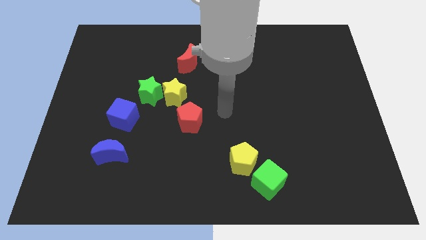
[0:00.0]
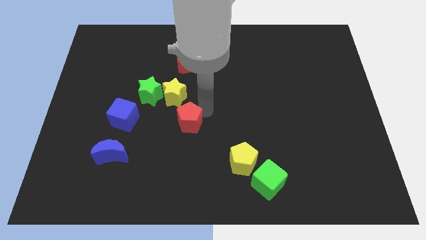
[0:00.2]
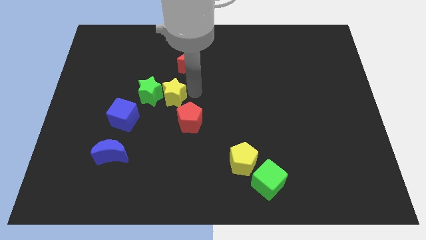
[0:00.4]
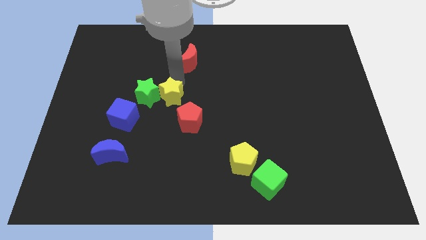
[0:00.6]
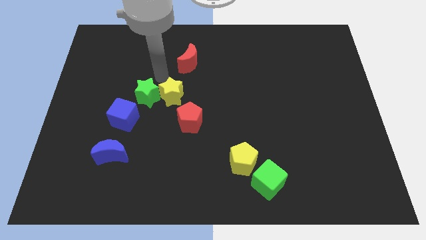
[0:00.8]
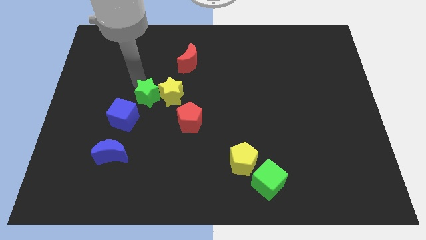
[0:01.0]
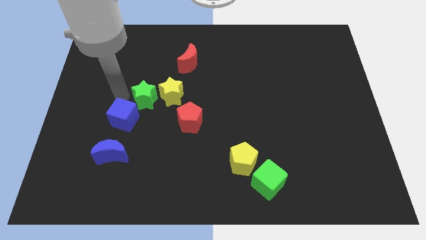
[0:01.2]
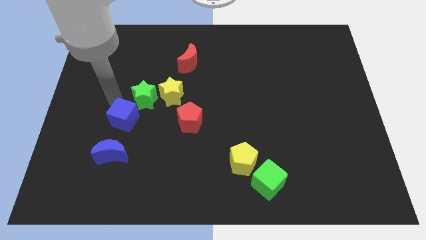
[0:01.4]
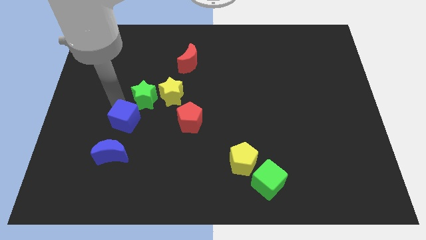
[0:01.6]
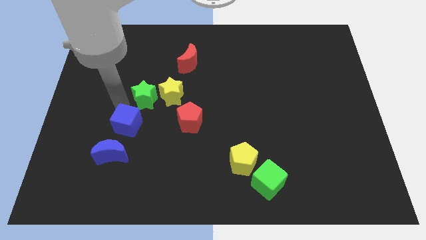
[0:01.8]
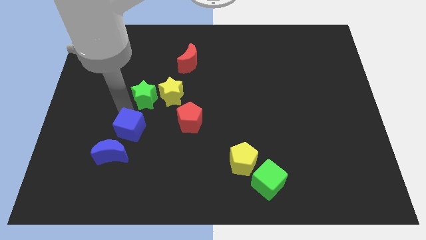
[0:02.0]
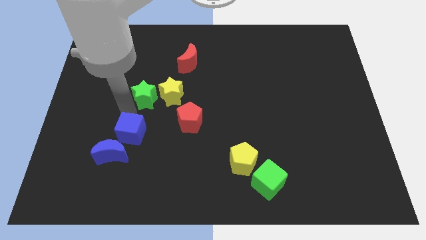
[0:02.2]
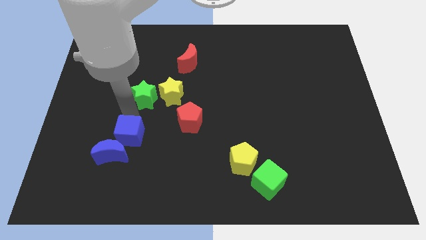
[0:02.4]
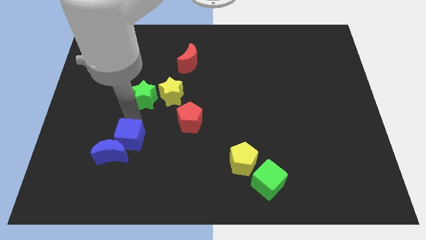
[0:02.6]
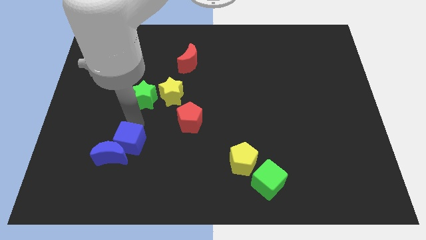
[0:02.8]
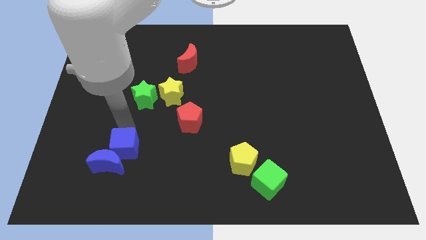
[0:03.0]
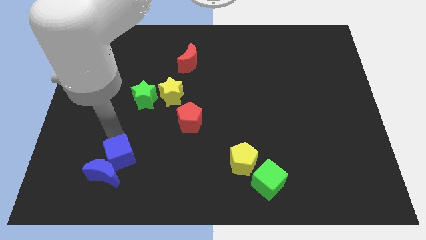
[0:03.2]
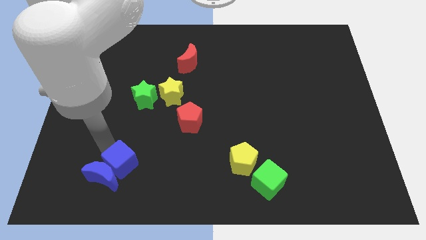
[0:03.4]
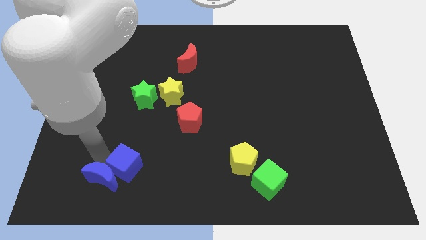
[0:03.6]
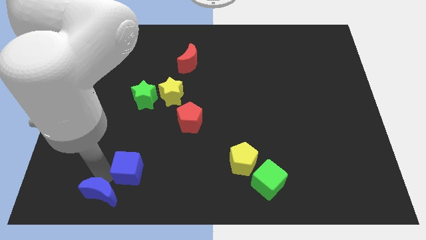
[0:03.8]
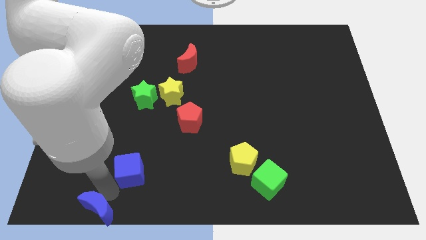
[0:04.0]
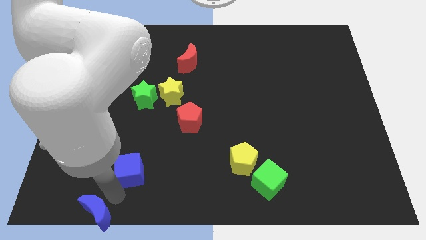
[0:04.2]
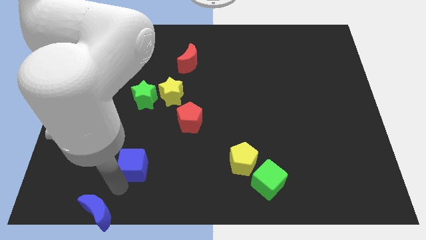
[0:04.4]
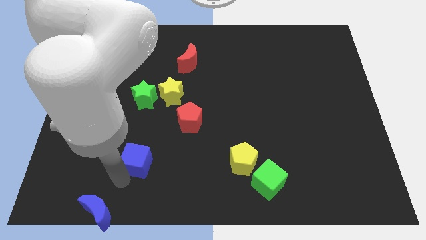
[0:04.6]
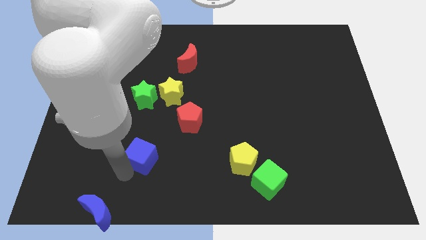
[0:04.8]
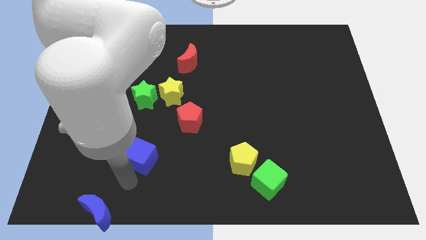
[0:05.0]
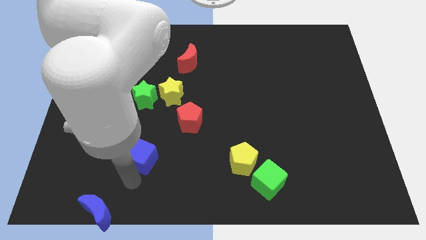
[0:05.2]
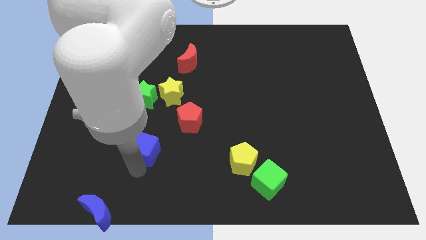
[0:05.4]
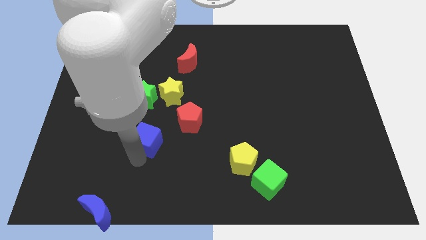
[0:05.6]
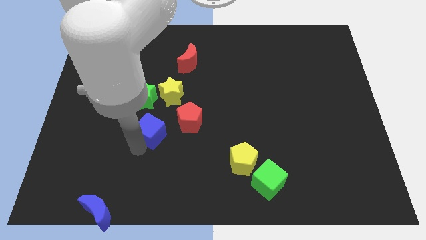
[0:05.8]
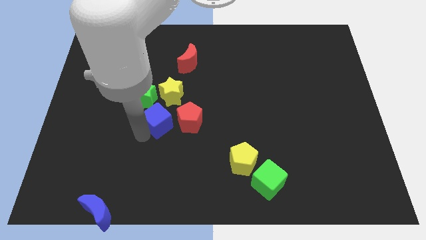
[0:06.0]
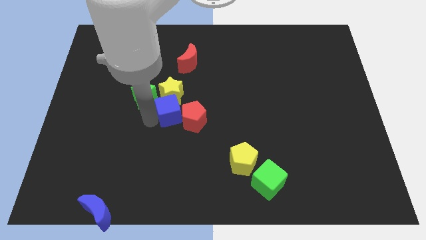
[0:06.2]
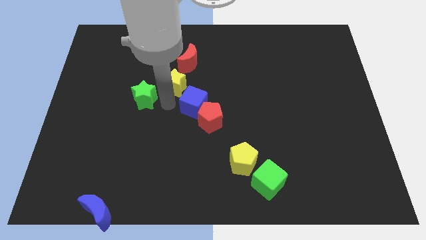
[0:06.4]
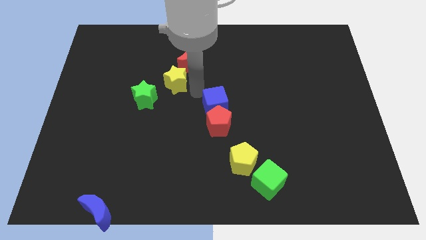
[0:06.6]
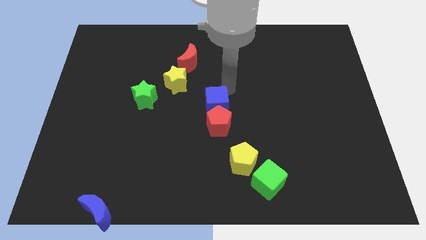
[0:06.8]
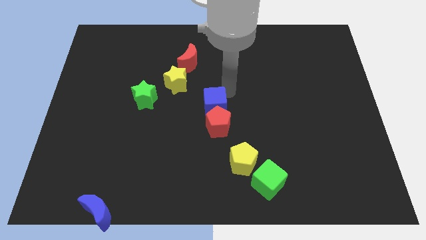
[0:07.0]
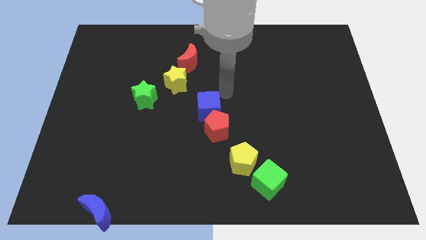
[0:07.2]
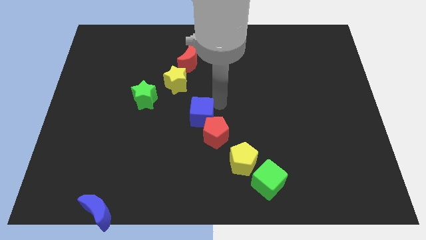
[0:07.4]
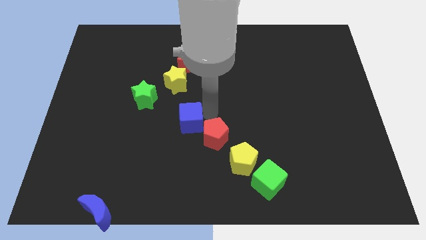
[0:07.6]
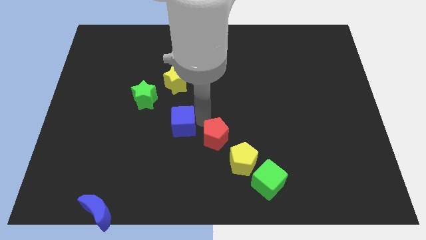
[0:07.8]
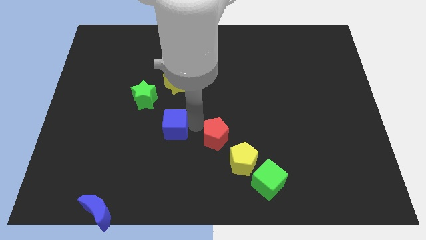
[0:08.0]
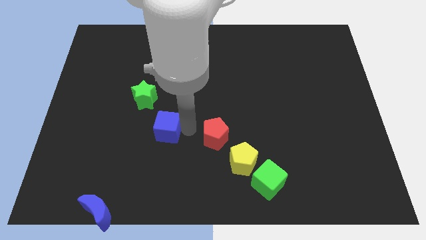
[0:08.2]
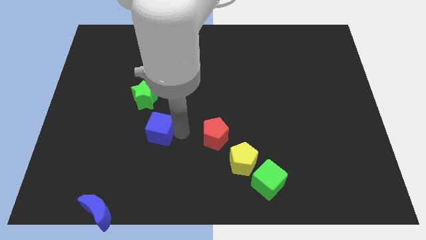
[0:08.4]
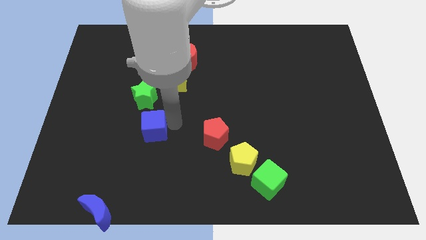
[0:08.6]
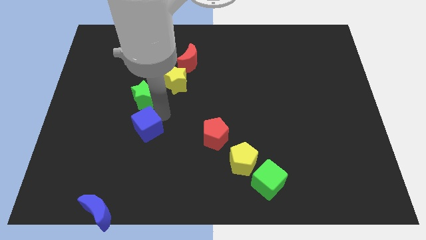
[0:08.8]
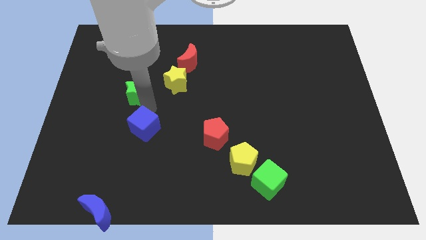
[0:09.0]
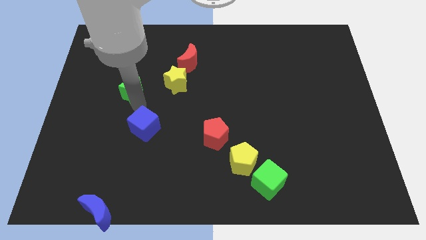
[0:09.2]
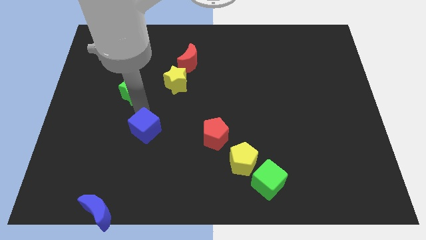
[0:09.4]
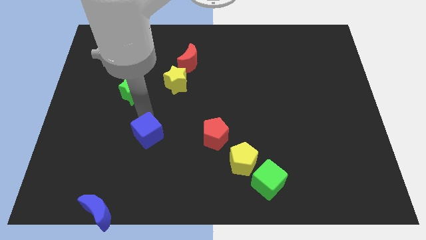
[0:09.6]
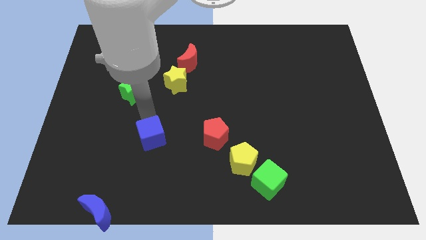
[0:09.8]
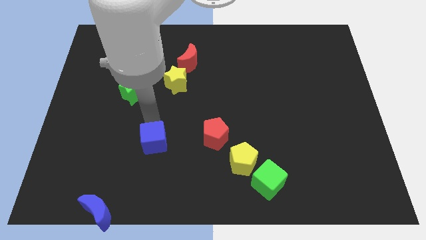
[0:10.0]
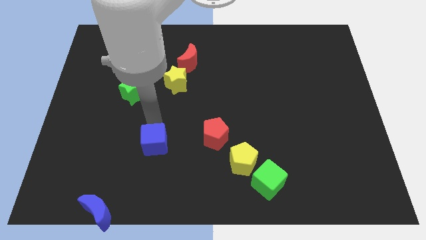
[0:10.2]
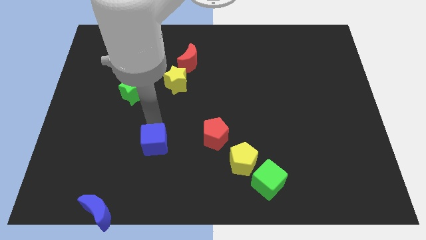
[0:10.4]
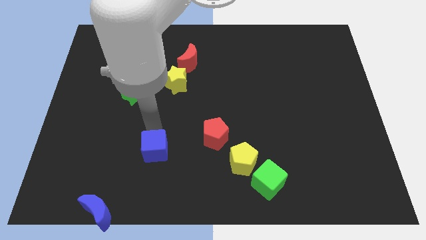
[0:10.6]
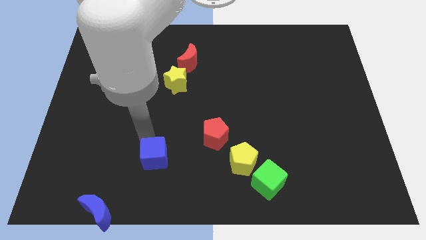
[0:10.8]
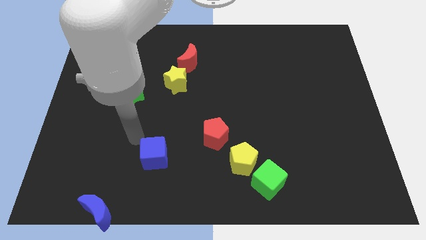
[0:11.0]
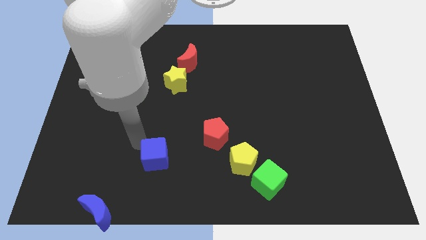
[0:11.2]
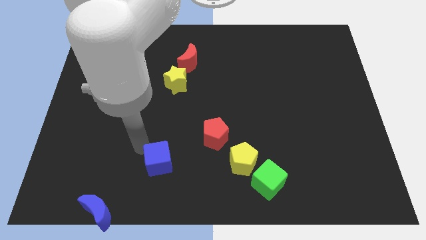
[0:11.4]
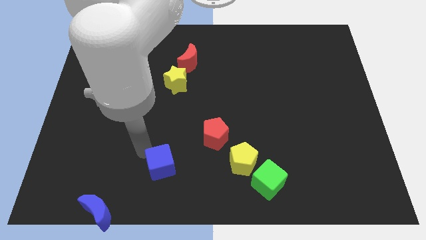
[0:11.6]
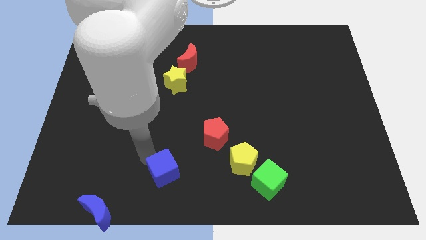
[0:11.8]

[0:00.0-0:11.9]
slide the blue cube to the bottom

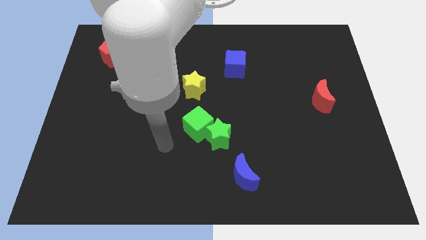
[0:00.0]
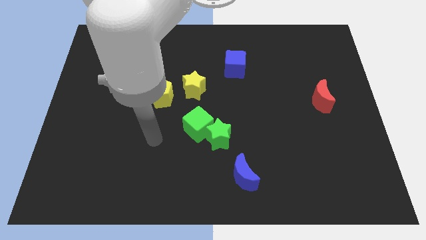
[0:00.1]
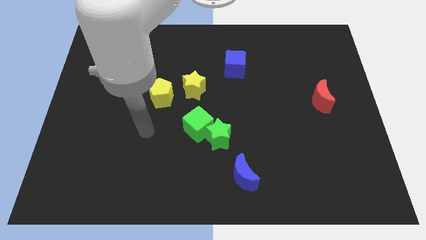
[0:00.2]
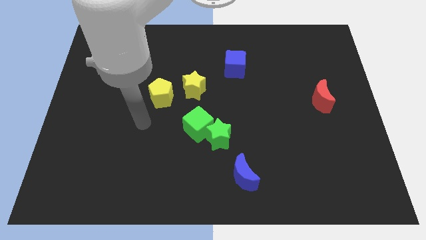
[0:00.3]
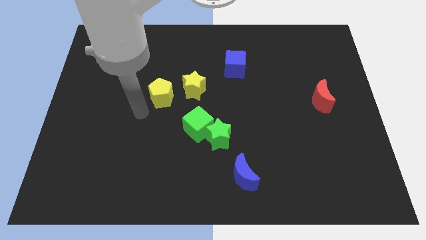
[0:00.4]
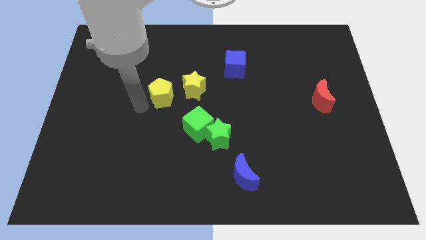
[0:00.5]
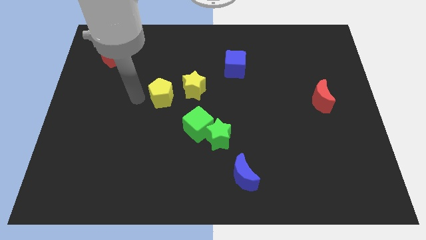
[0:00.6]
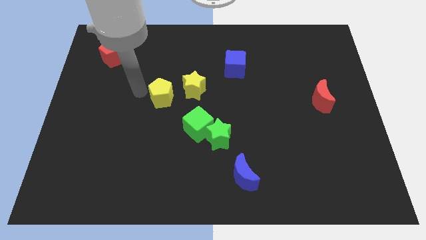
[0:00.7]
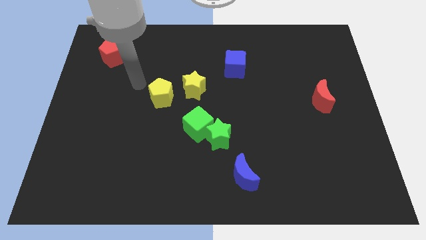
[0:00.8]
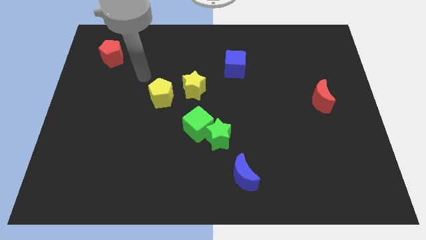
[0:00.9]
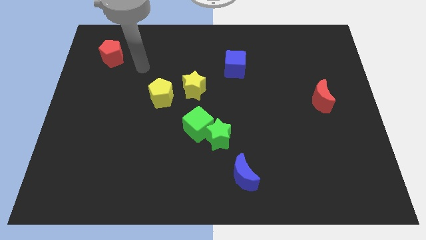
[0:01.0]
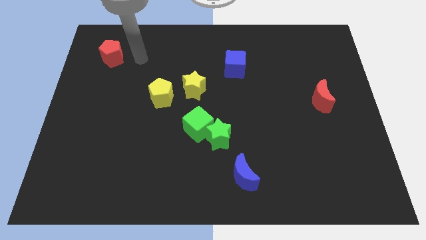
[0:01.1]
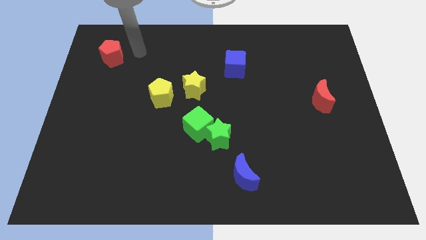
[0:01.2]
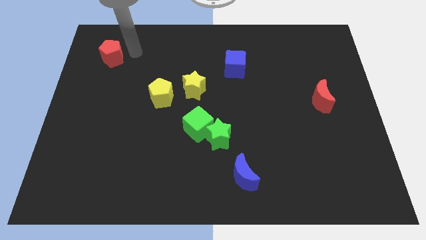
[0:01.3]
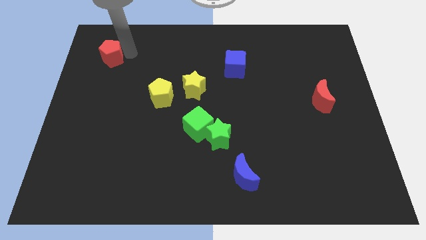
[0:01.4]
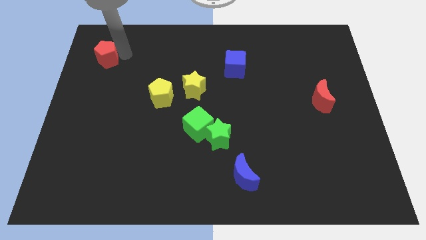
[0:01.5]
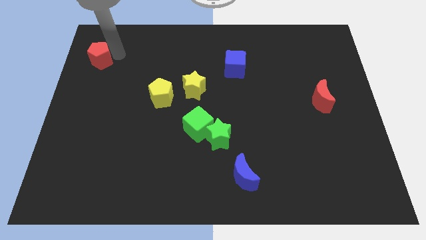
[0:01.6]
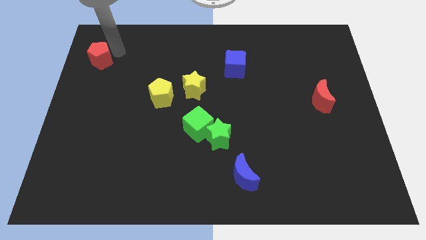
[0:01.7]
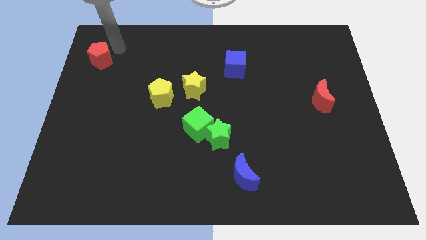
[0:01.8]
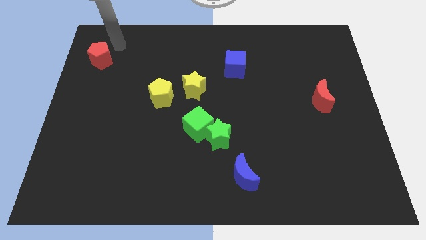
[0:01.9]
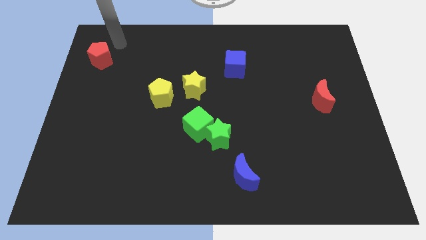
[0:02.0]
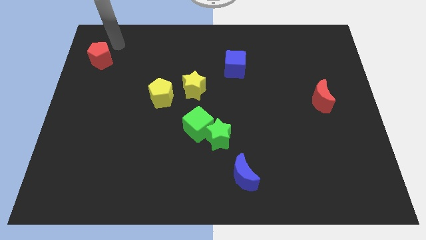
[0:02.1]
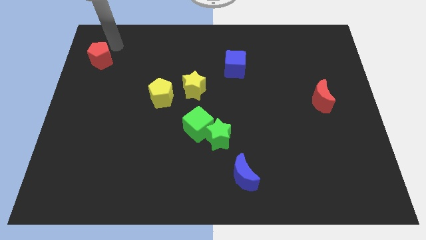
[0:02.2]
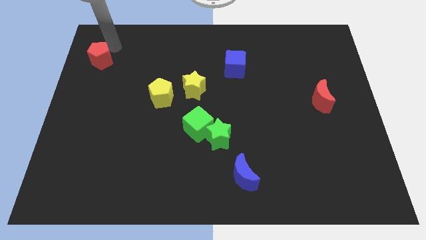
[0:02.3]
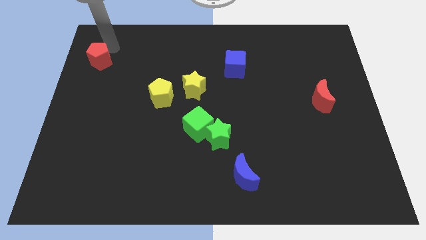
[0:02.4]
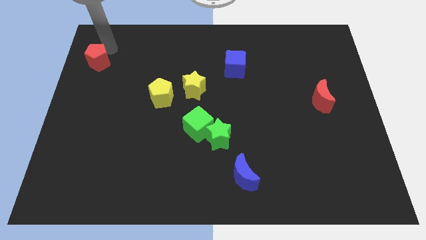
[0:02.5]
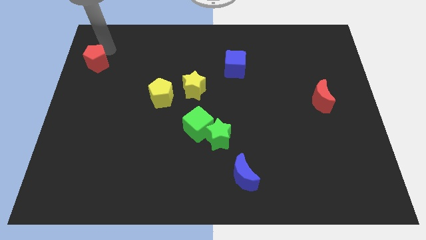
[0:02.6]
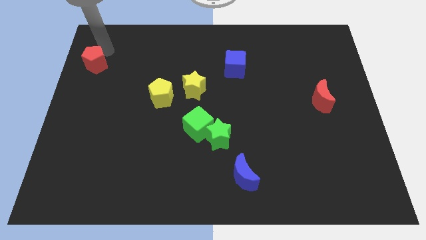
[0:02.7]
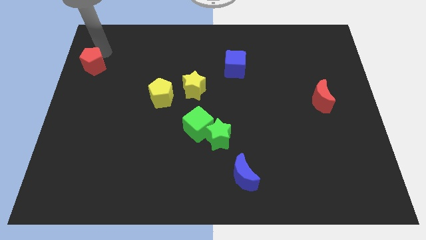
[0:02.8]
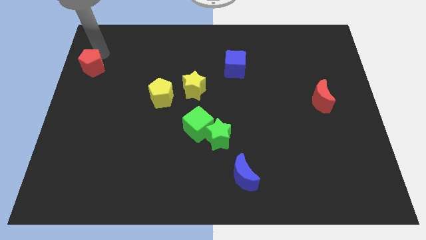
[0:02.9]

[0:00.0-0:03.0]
move the red pentagon to the left side
